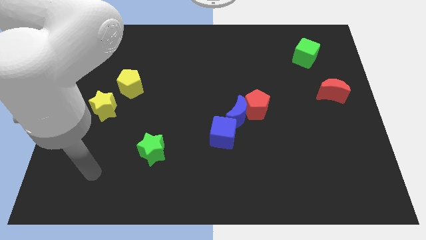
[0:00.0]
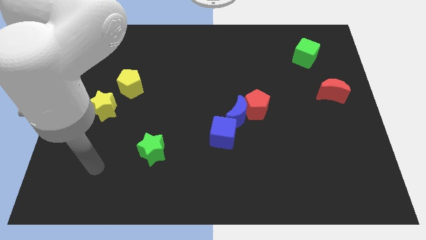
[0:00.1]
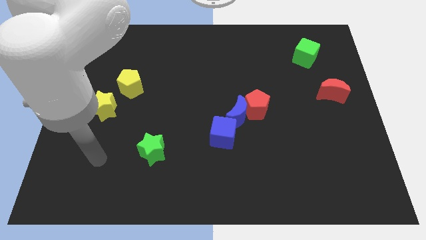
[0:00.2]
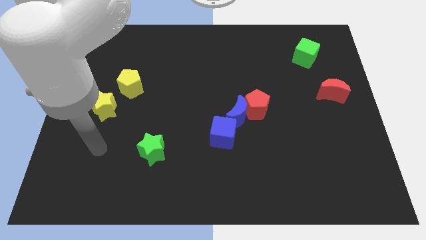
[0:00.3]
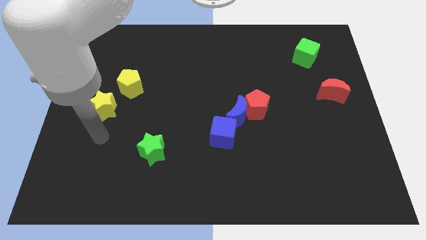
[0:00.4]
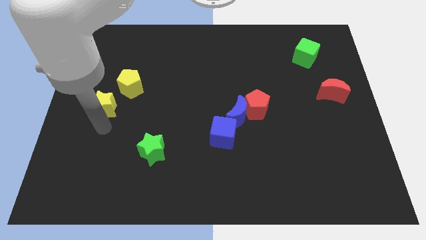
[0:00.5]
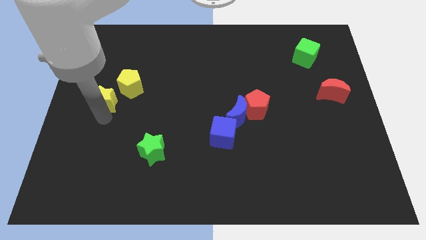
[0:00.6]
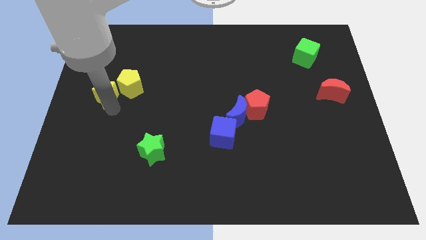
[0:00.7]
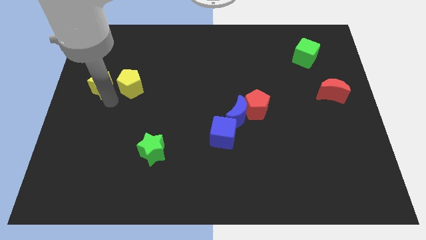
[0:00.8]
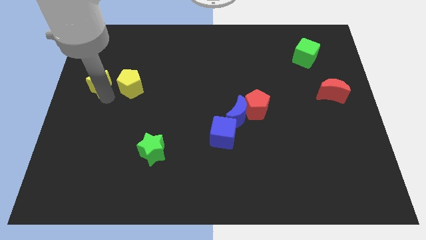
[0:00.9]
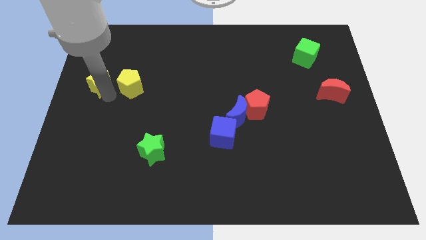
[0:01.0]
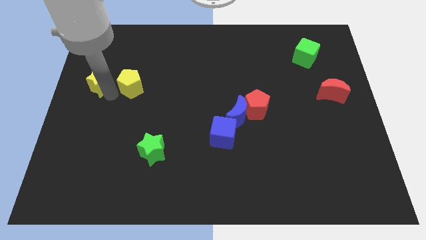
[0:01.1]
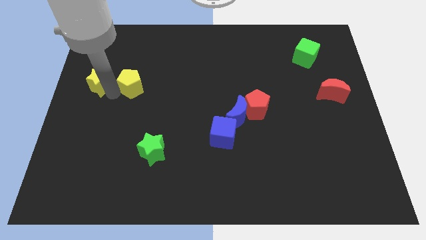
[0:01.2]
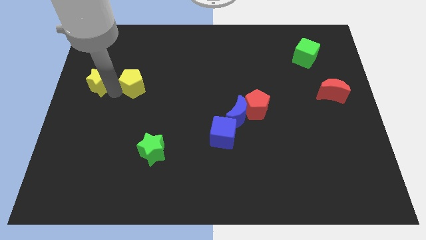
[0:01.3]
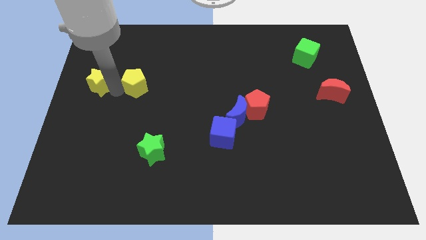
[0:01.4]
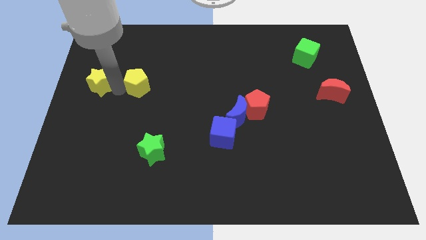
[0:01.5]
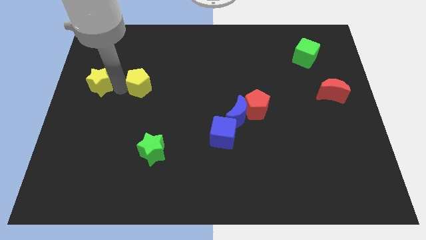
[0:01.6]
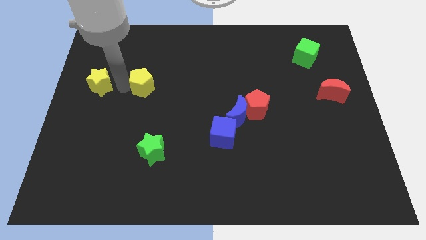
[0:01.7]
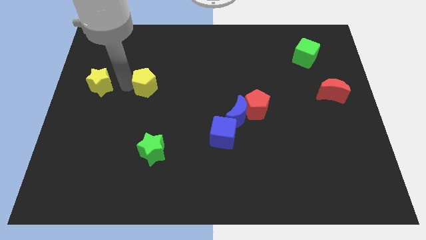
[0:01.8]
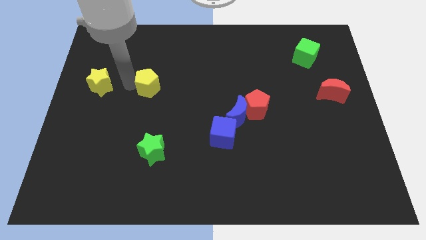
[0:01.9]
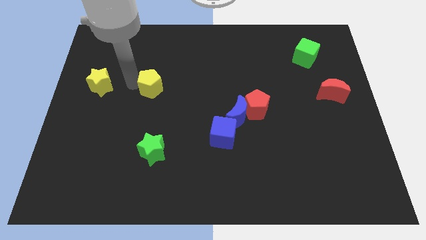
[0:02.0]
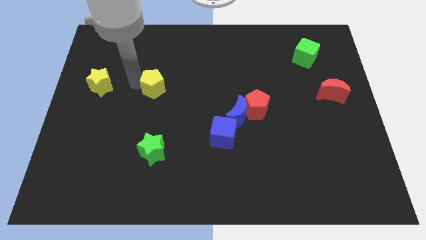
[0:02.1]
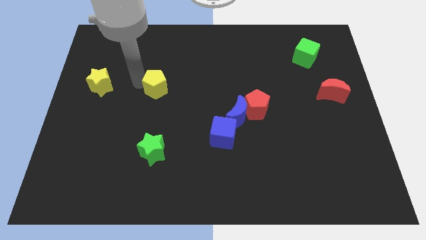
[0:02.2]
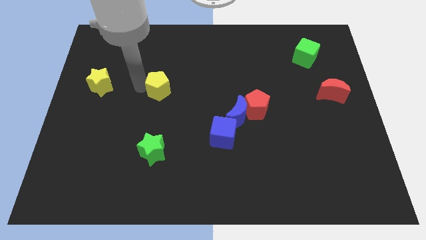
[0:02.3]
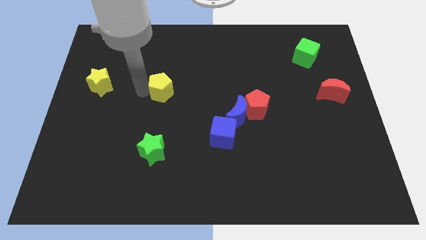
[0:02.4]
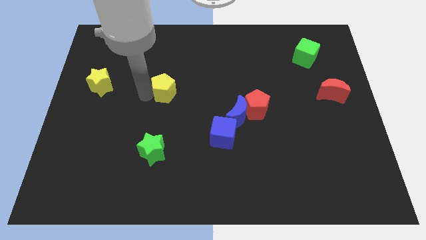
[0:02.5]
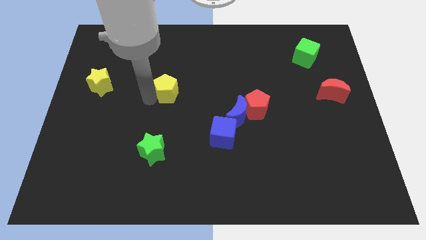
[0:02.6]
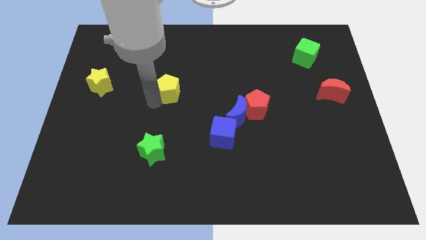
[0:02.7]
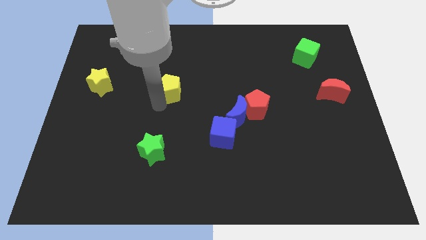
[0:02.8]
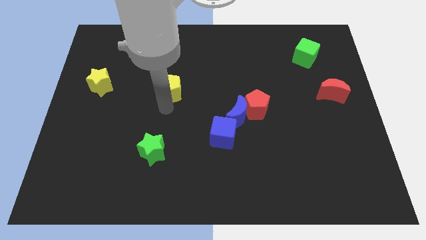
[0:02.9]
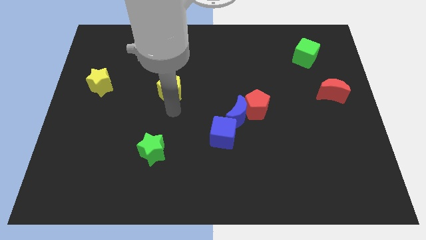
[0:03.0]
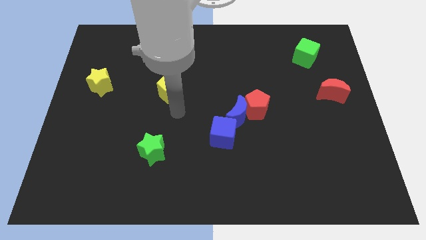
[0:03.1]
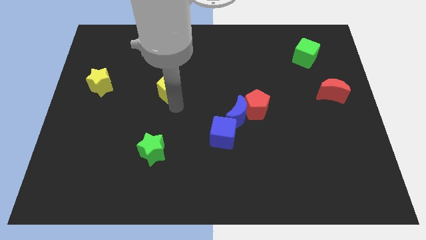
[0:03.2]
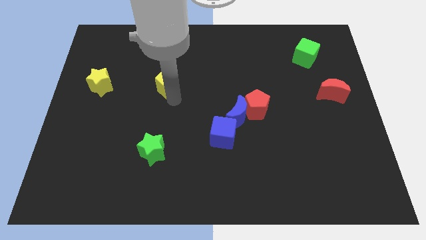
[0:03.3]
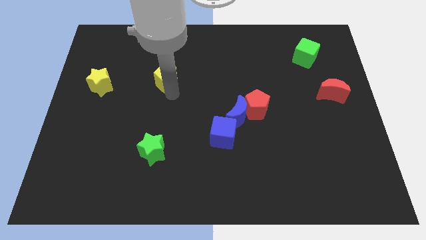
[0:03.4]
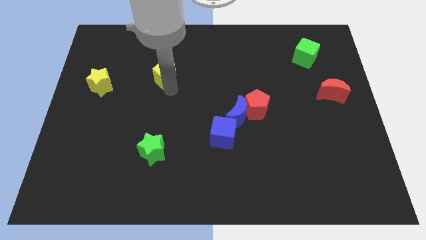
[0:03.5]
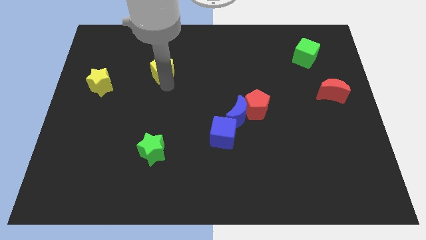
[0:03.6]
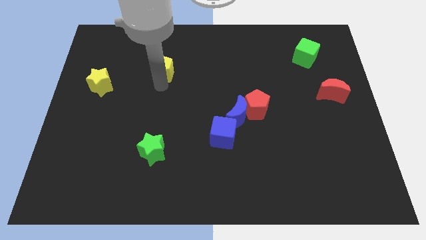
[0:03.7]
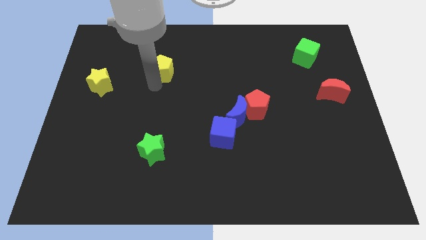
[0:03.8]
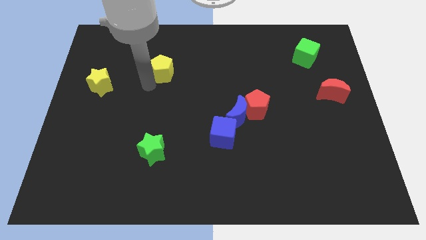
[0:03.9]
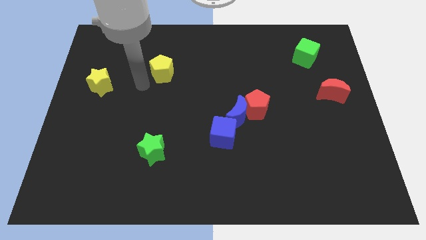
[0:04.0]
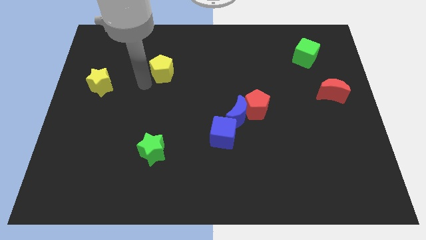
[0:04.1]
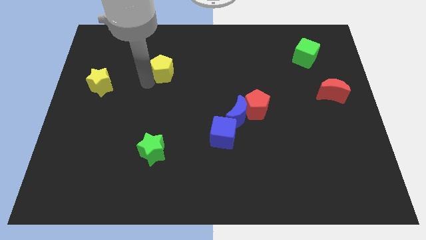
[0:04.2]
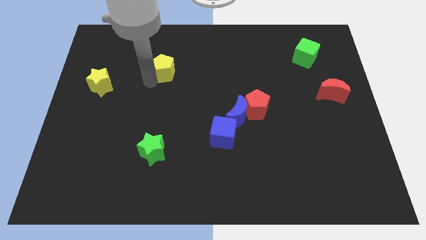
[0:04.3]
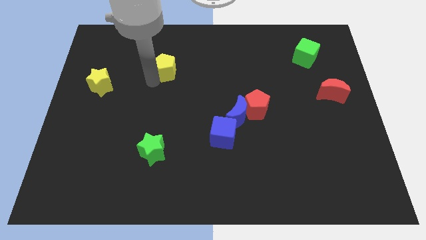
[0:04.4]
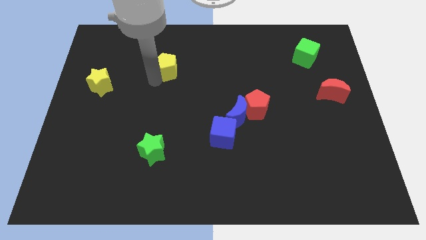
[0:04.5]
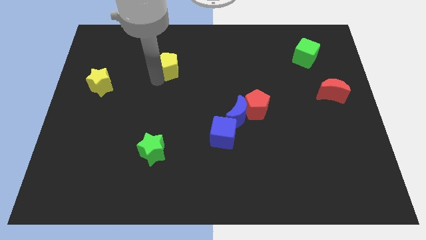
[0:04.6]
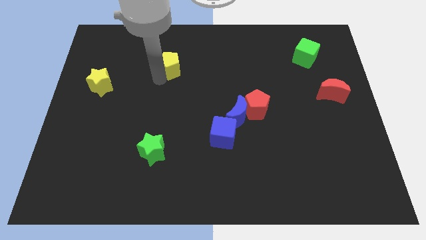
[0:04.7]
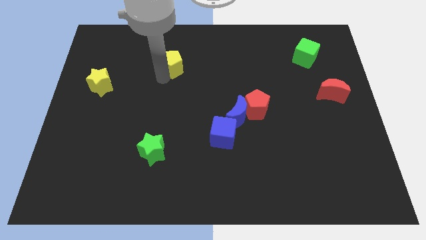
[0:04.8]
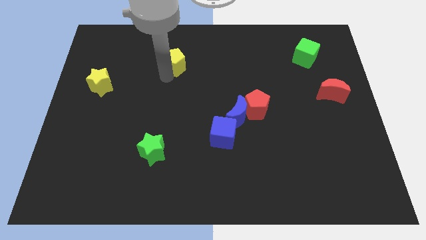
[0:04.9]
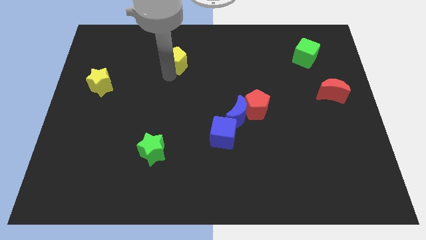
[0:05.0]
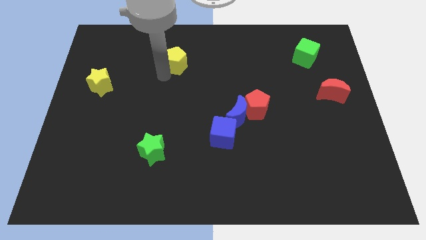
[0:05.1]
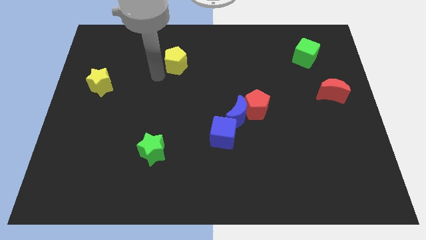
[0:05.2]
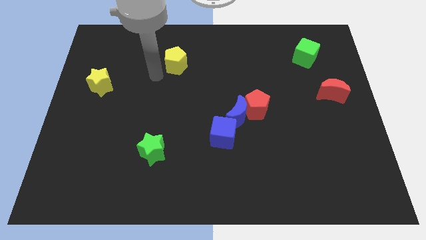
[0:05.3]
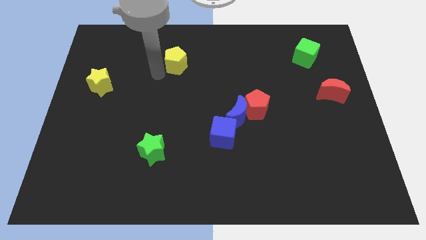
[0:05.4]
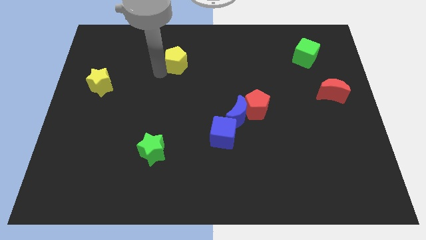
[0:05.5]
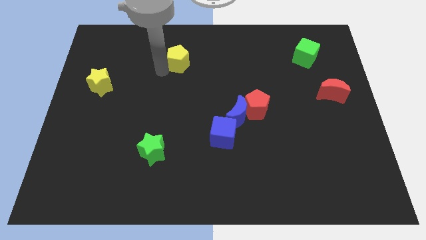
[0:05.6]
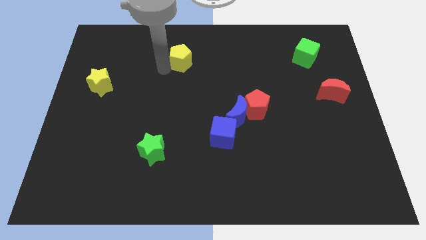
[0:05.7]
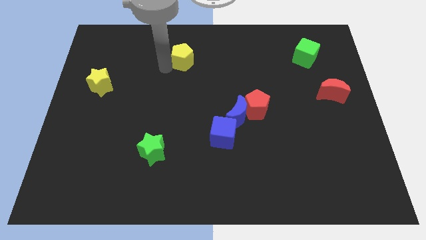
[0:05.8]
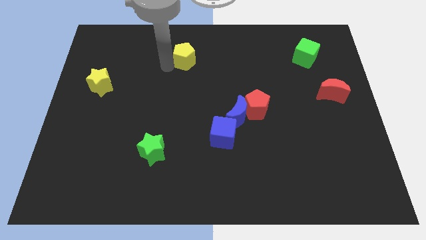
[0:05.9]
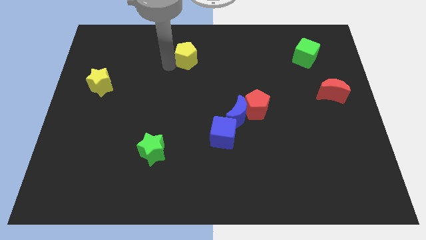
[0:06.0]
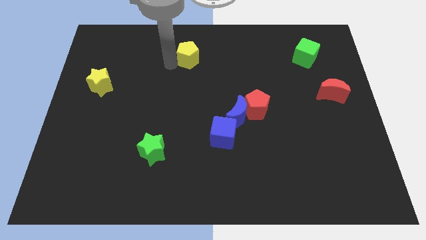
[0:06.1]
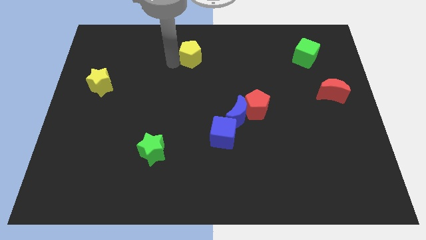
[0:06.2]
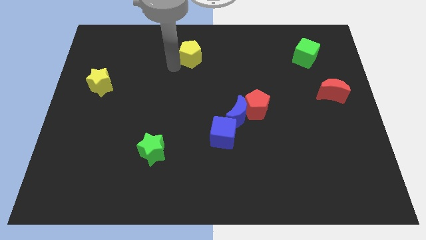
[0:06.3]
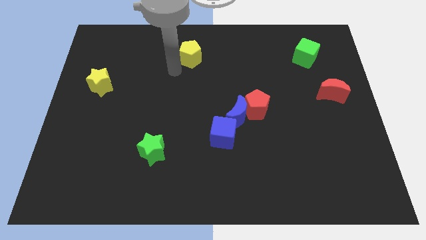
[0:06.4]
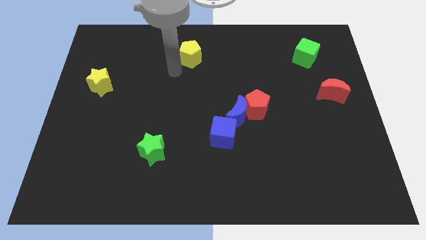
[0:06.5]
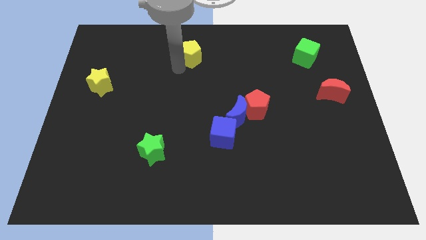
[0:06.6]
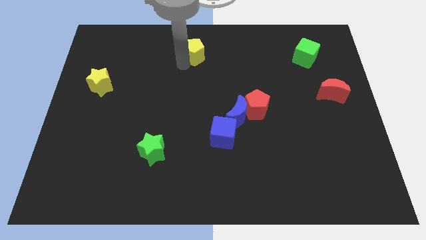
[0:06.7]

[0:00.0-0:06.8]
push the yellow pentagon to the top side

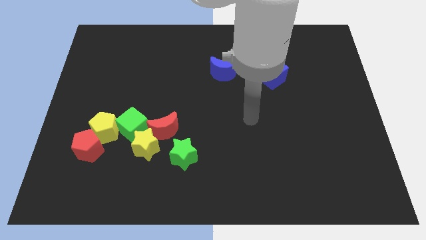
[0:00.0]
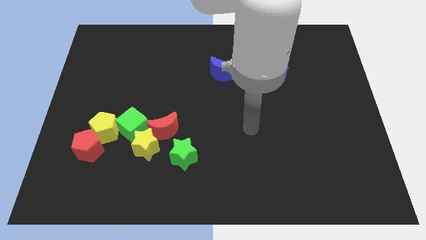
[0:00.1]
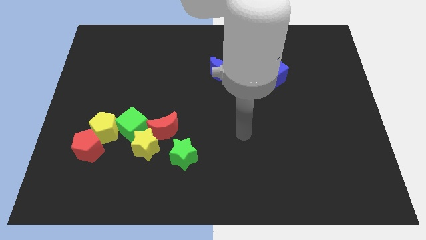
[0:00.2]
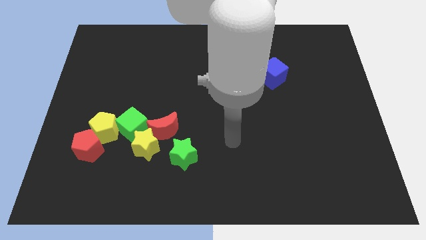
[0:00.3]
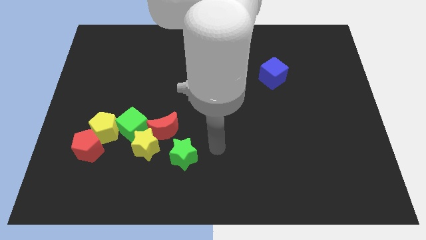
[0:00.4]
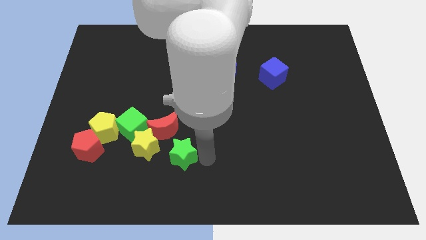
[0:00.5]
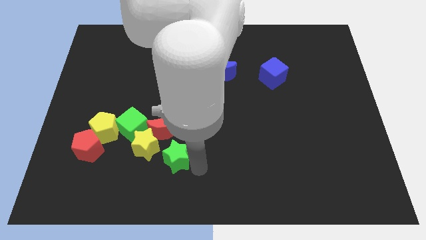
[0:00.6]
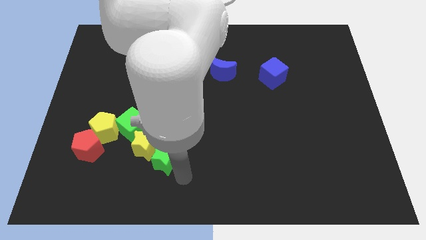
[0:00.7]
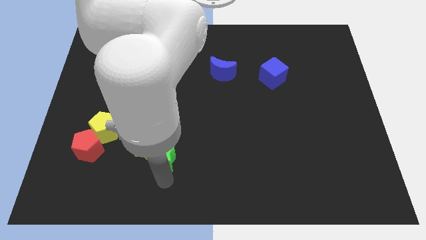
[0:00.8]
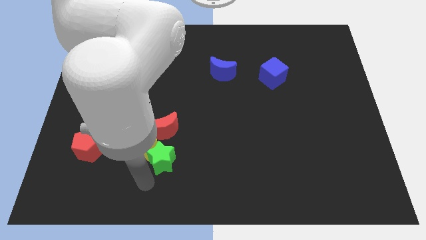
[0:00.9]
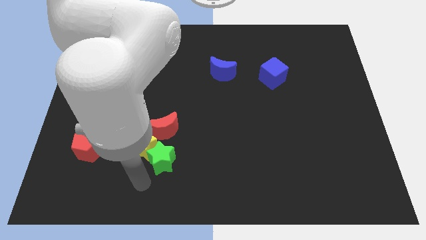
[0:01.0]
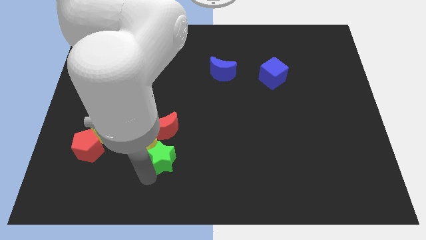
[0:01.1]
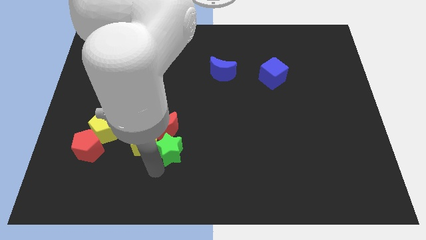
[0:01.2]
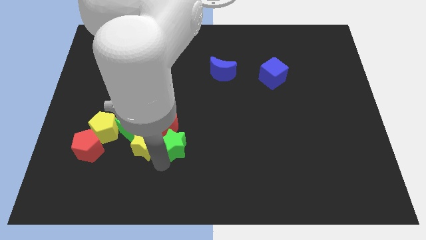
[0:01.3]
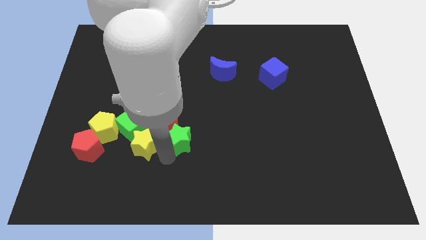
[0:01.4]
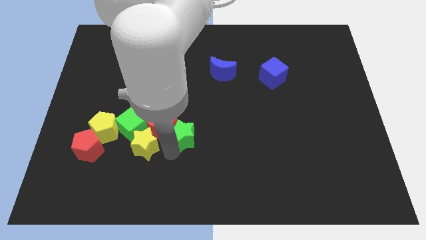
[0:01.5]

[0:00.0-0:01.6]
push the green star to the center
